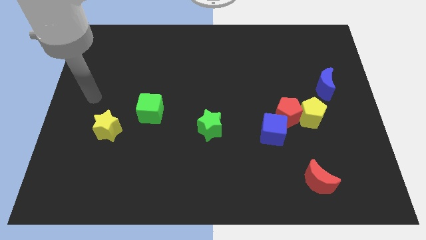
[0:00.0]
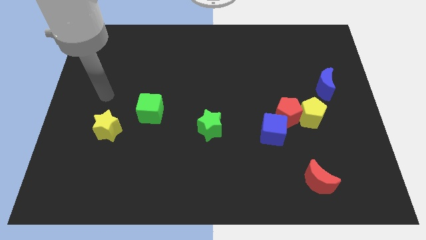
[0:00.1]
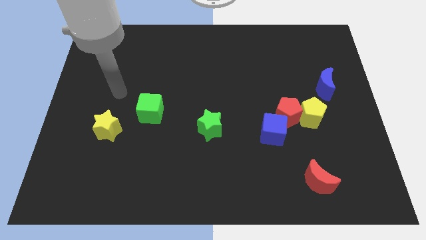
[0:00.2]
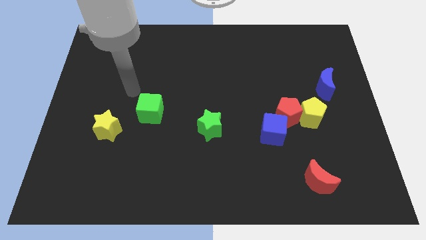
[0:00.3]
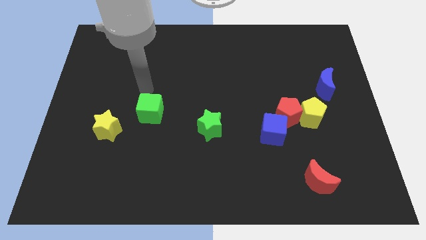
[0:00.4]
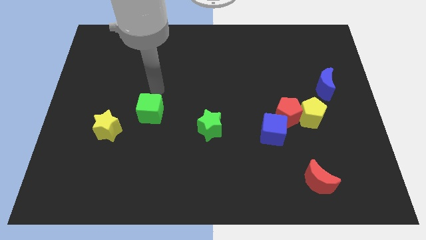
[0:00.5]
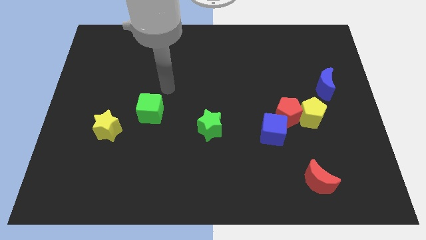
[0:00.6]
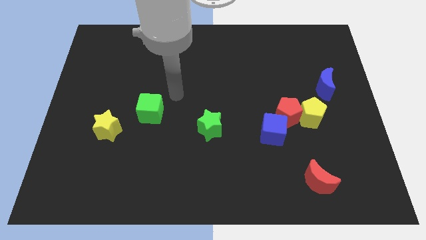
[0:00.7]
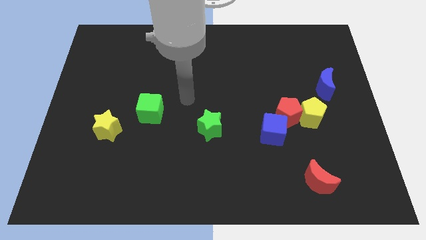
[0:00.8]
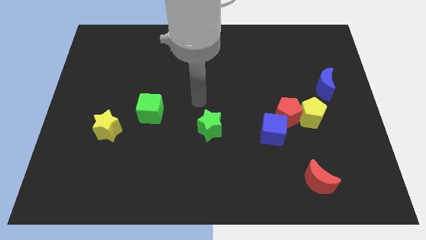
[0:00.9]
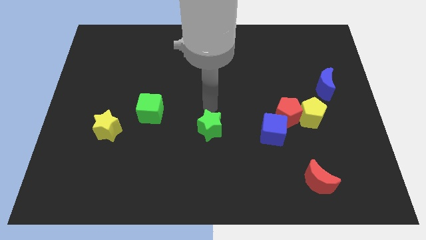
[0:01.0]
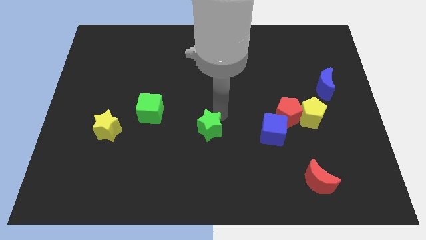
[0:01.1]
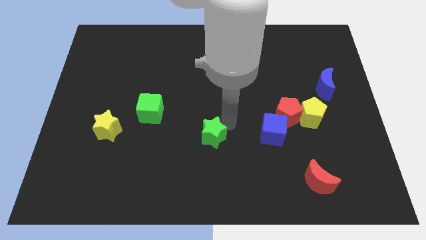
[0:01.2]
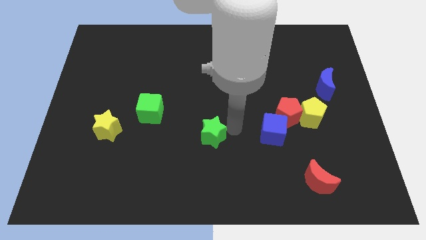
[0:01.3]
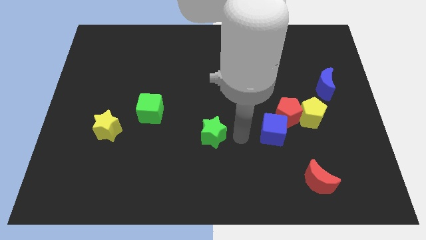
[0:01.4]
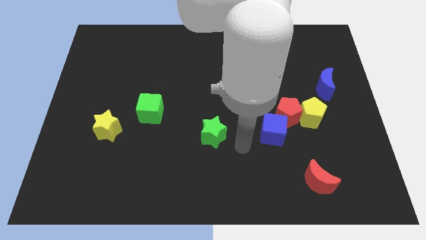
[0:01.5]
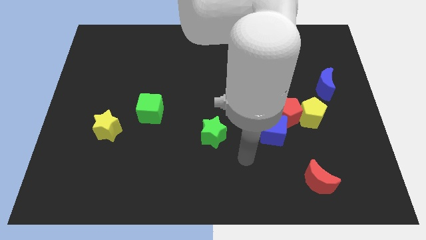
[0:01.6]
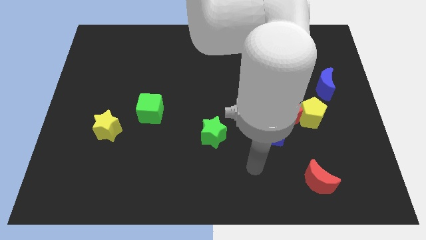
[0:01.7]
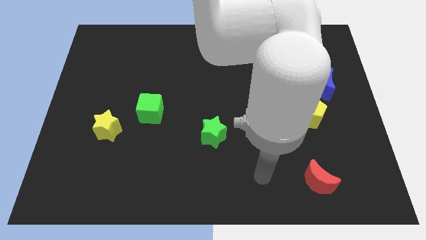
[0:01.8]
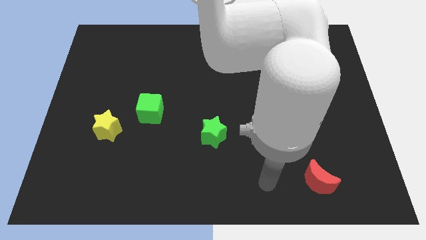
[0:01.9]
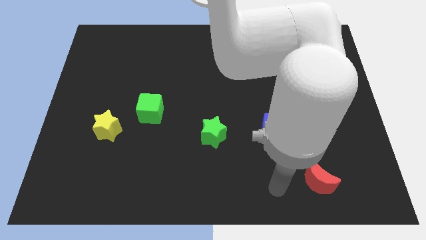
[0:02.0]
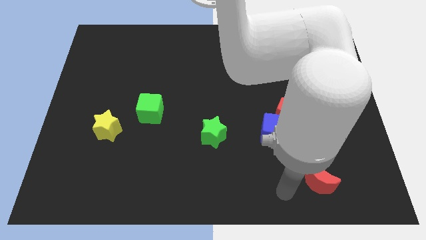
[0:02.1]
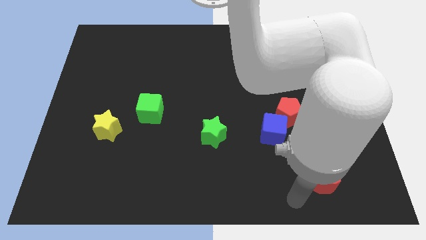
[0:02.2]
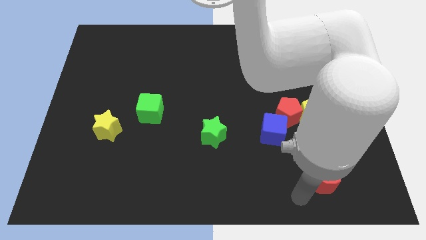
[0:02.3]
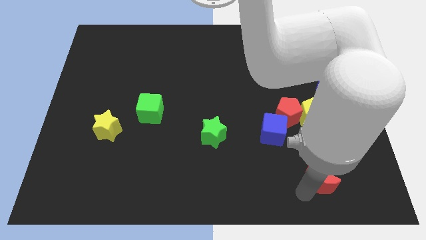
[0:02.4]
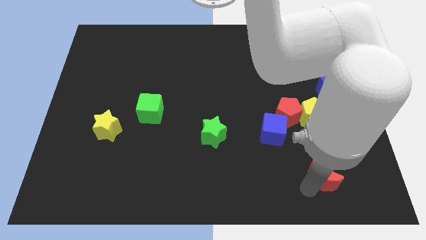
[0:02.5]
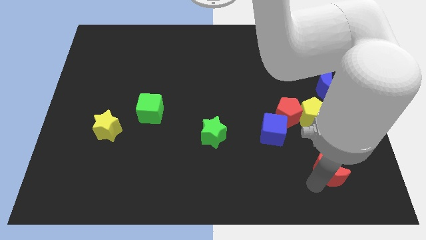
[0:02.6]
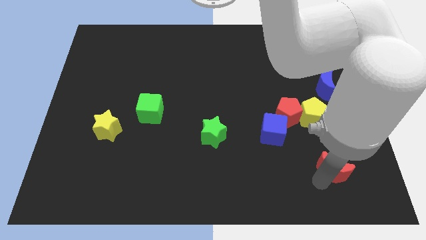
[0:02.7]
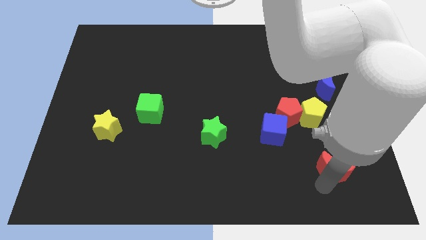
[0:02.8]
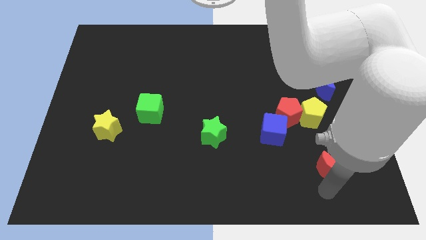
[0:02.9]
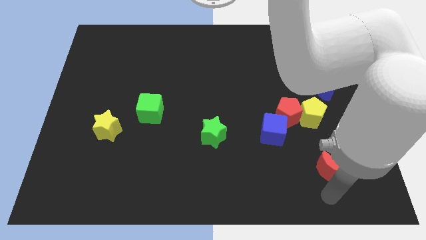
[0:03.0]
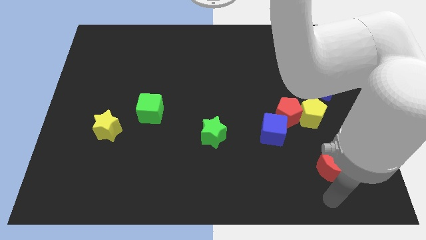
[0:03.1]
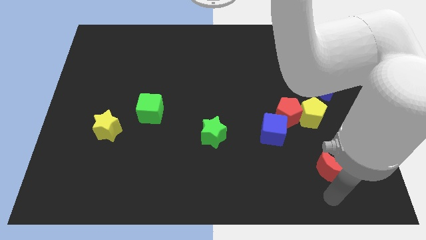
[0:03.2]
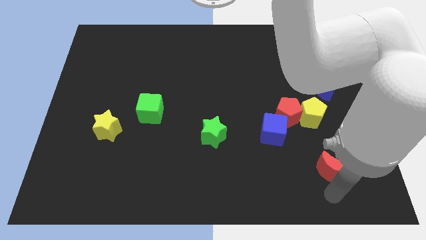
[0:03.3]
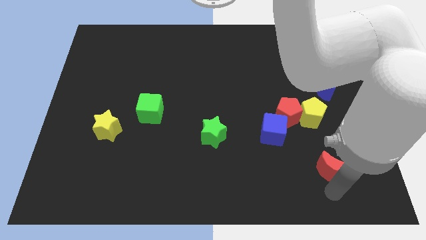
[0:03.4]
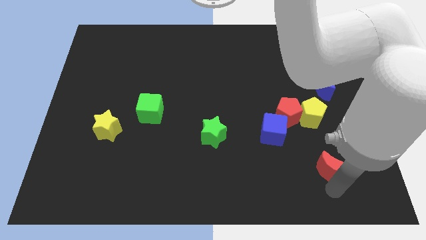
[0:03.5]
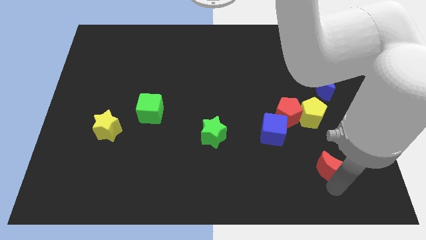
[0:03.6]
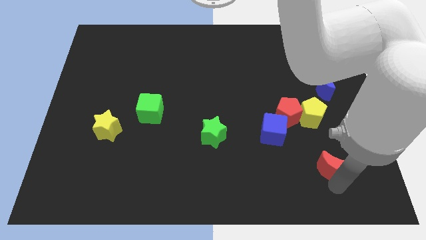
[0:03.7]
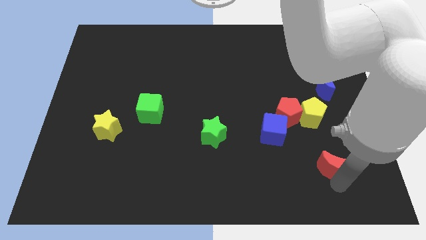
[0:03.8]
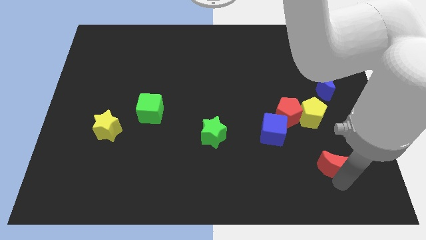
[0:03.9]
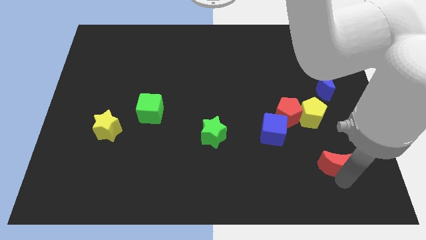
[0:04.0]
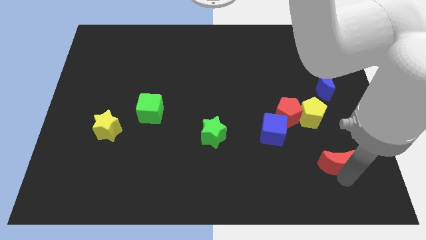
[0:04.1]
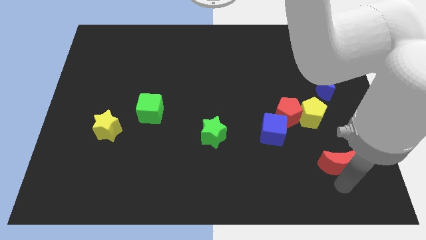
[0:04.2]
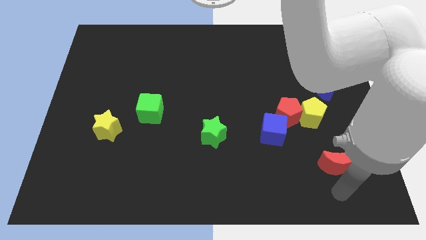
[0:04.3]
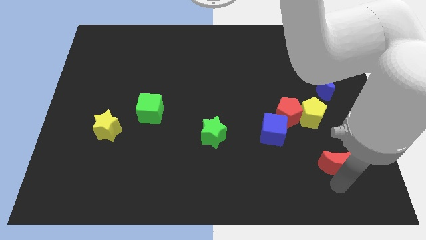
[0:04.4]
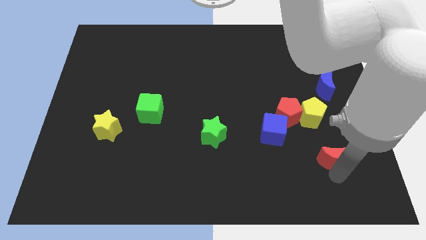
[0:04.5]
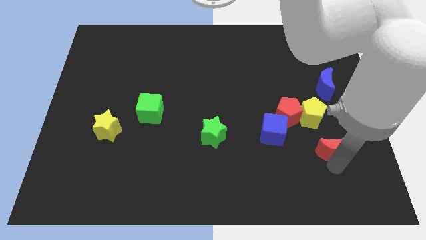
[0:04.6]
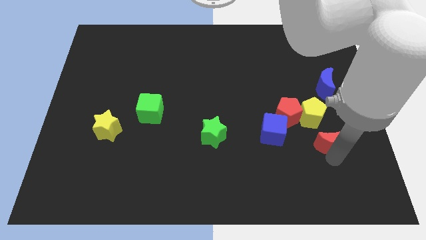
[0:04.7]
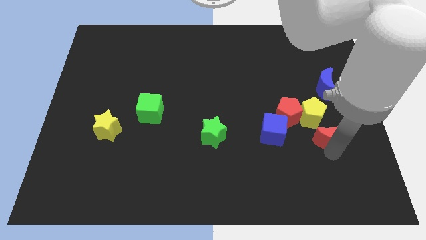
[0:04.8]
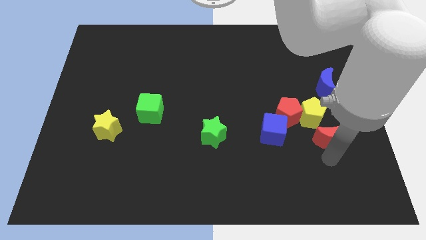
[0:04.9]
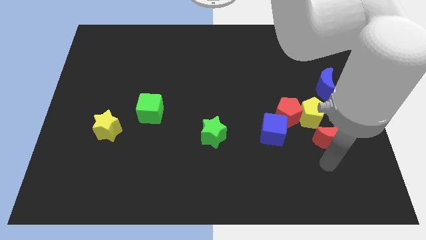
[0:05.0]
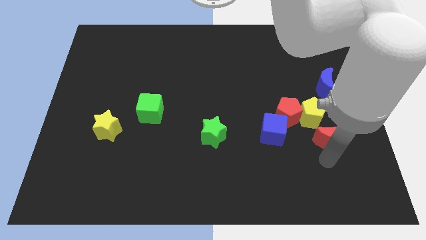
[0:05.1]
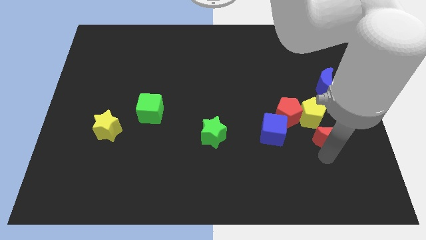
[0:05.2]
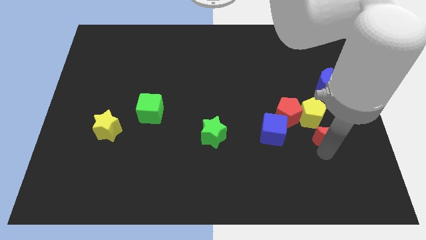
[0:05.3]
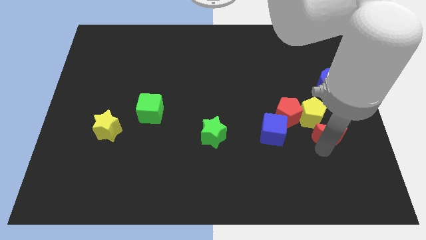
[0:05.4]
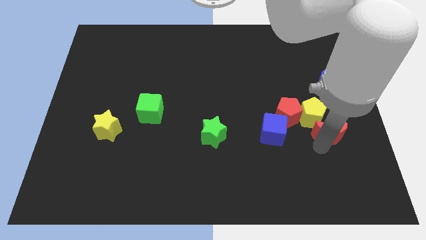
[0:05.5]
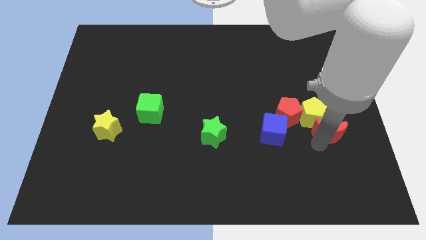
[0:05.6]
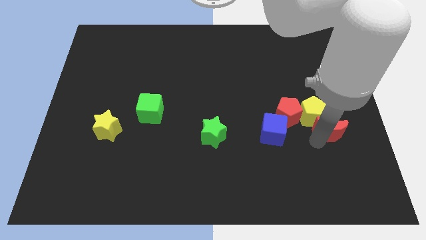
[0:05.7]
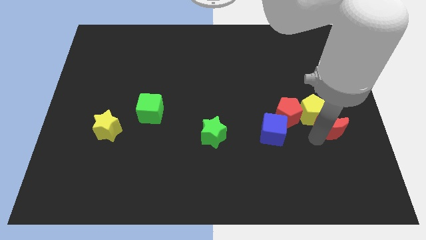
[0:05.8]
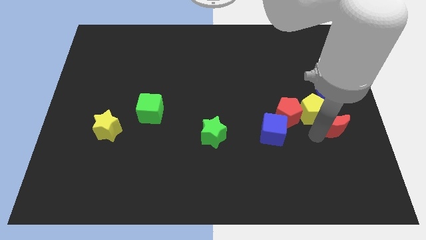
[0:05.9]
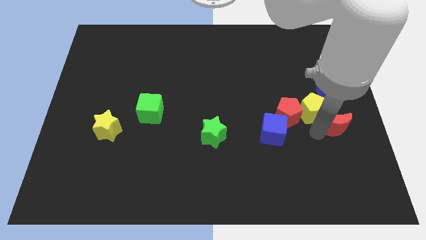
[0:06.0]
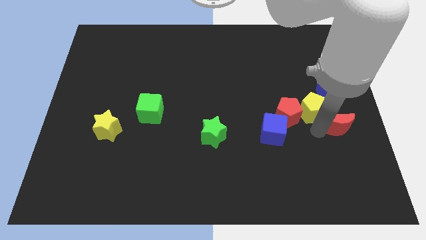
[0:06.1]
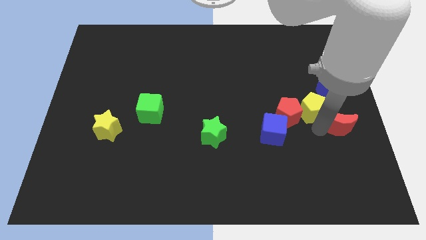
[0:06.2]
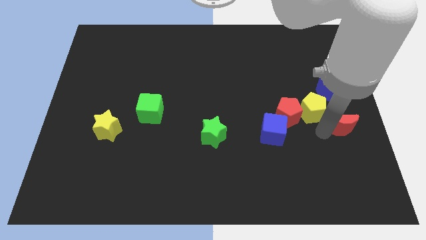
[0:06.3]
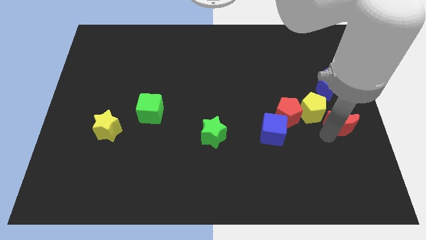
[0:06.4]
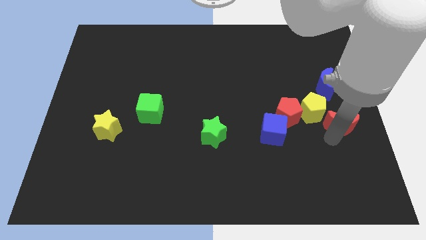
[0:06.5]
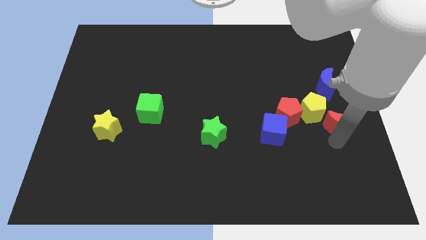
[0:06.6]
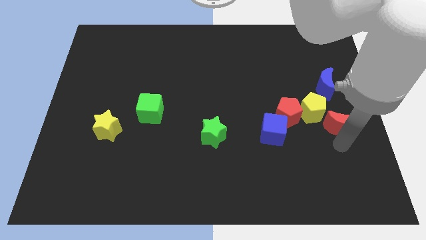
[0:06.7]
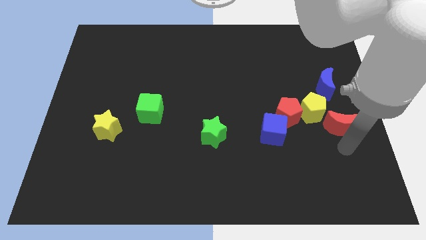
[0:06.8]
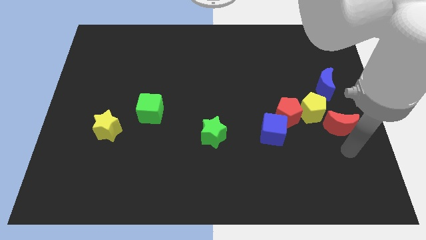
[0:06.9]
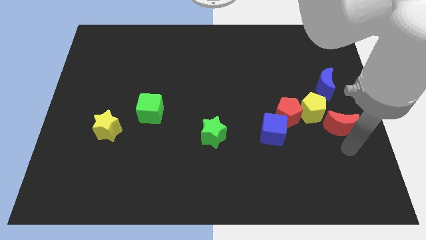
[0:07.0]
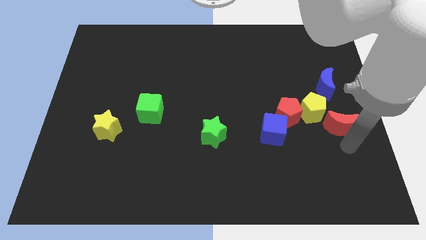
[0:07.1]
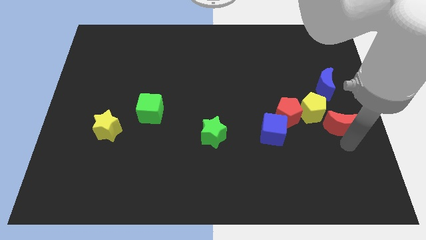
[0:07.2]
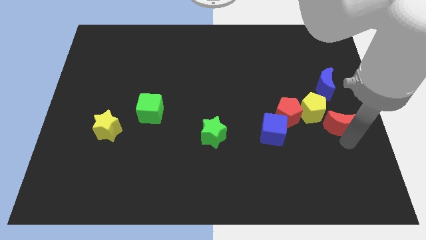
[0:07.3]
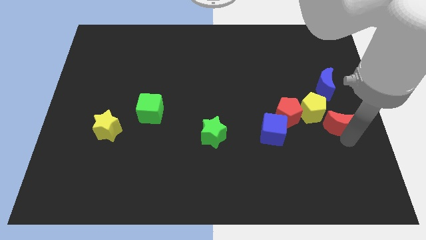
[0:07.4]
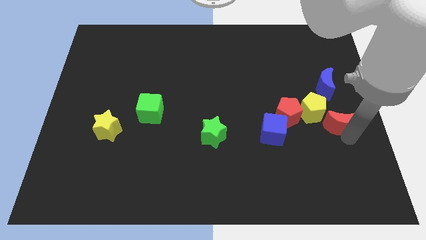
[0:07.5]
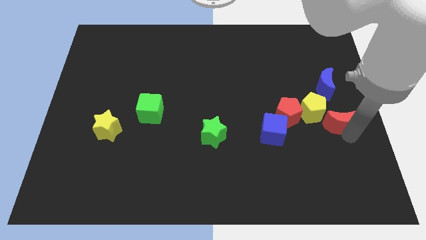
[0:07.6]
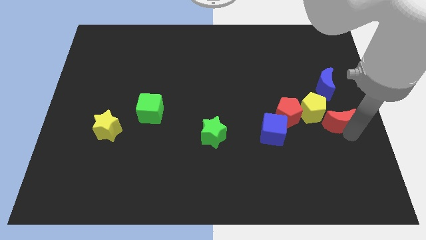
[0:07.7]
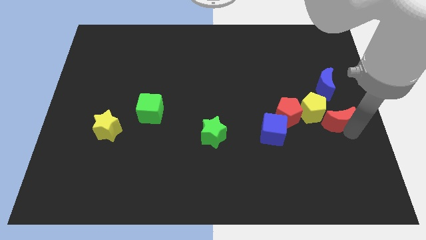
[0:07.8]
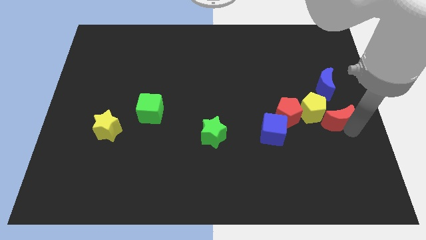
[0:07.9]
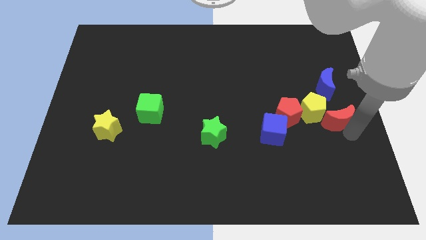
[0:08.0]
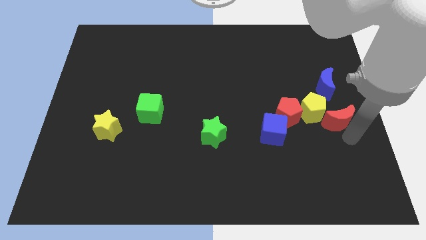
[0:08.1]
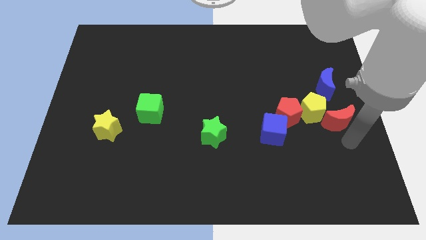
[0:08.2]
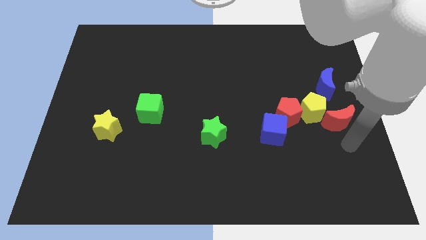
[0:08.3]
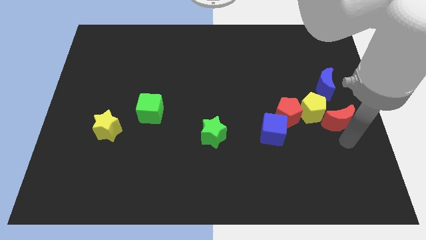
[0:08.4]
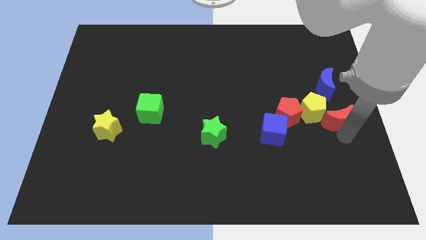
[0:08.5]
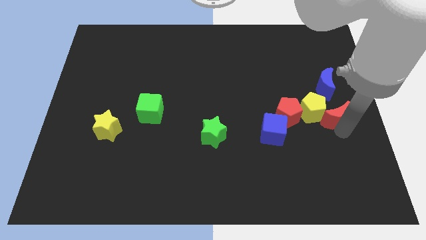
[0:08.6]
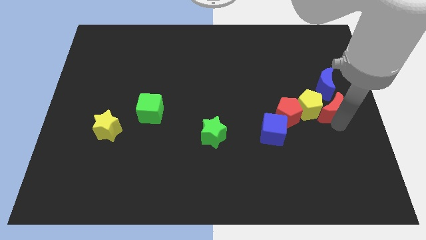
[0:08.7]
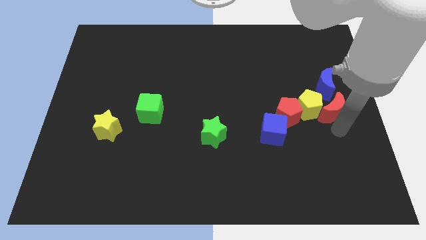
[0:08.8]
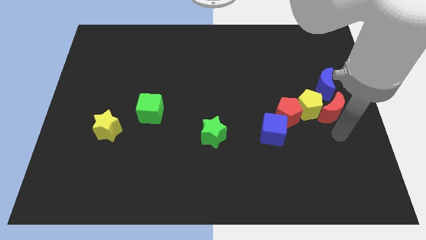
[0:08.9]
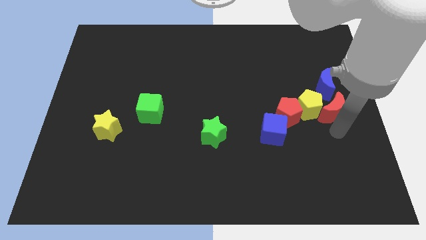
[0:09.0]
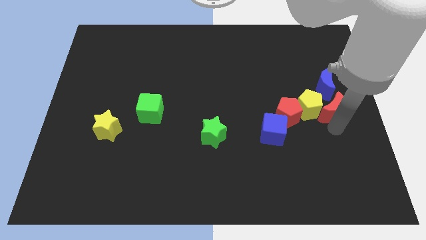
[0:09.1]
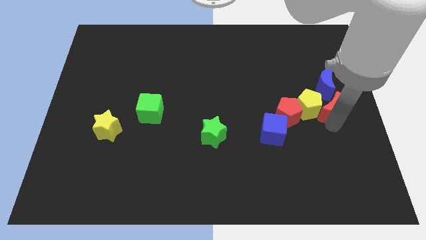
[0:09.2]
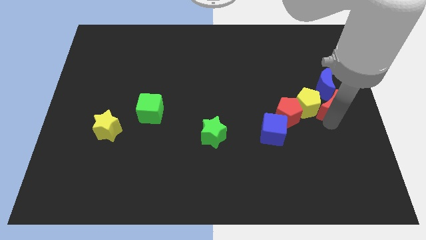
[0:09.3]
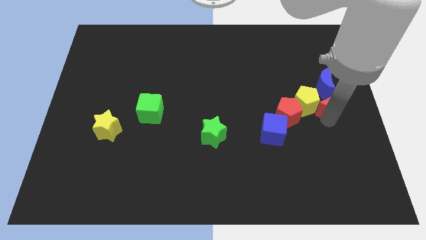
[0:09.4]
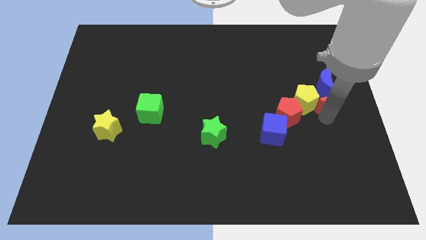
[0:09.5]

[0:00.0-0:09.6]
put the red moon close to the blue moon
